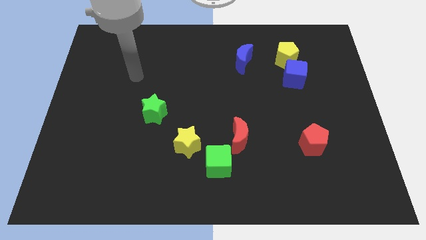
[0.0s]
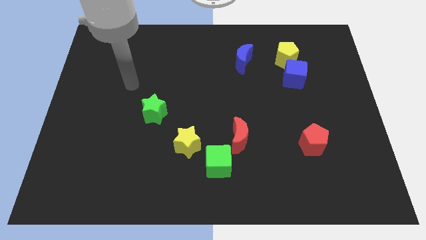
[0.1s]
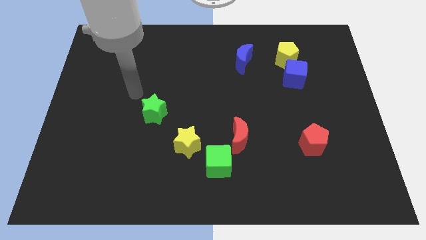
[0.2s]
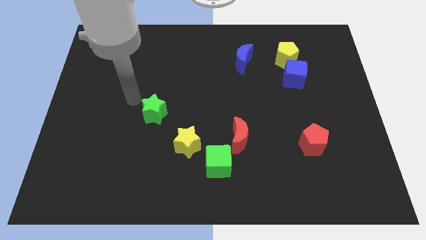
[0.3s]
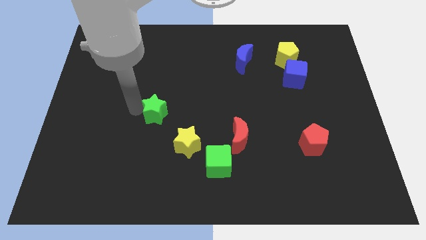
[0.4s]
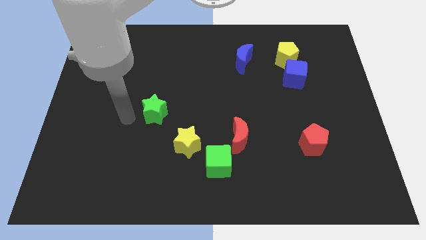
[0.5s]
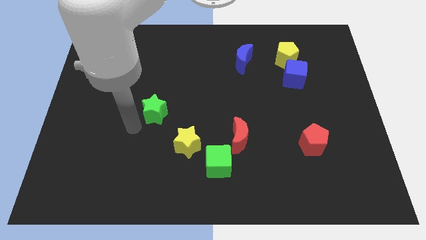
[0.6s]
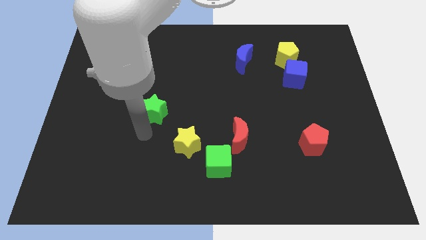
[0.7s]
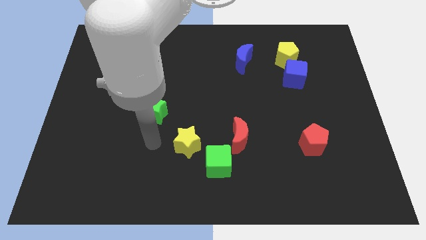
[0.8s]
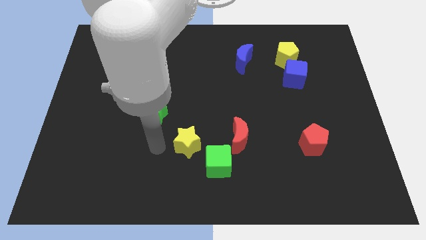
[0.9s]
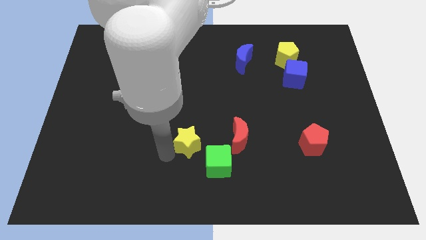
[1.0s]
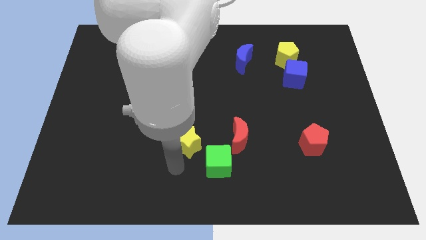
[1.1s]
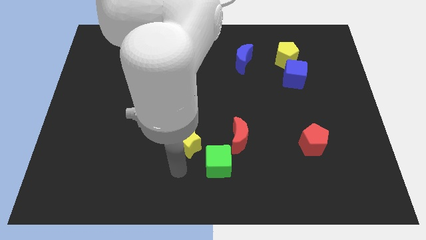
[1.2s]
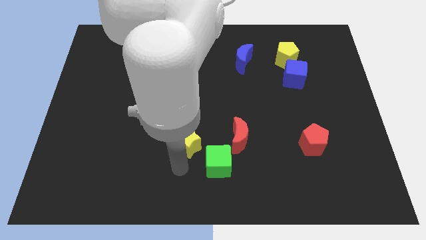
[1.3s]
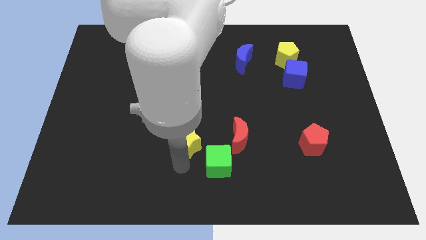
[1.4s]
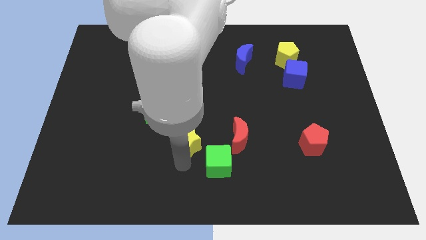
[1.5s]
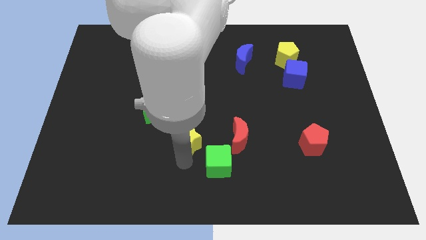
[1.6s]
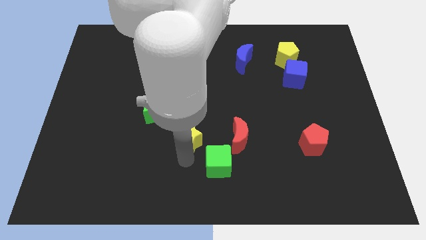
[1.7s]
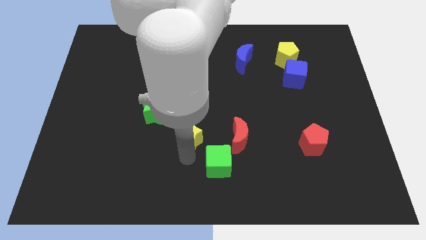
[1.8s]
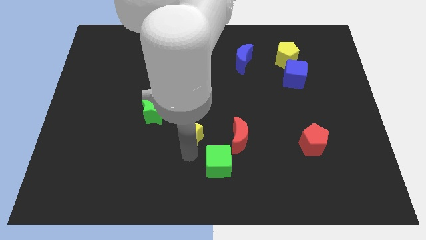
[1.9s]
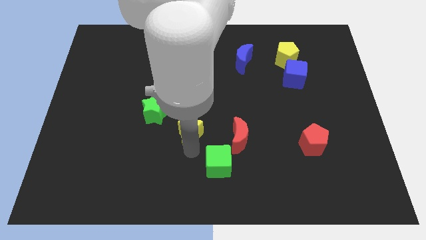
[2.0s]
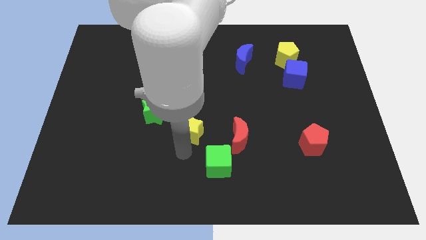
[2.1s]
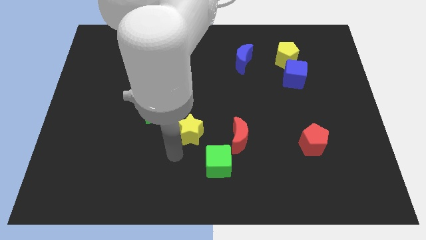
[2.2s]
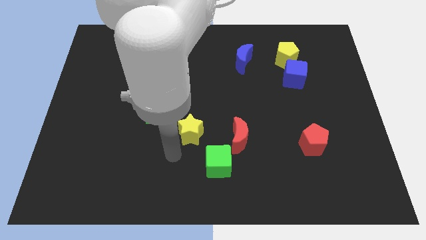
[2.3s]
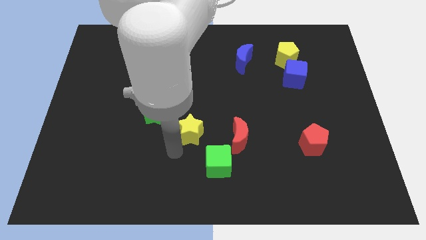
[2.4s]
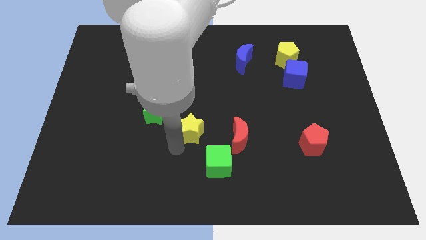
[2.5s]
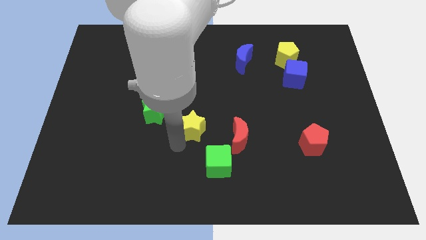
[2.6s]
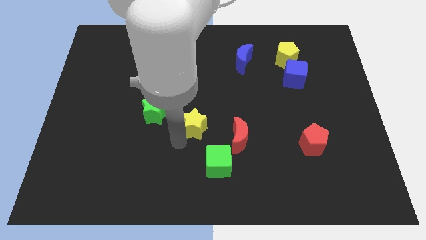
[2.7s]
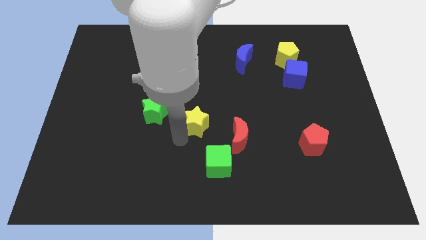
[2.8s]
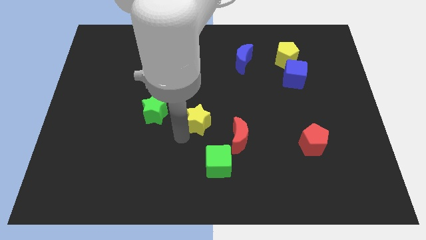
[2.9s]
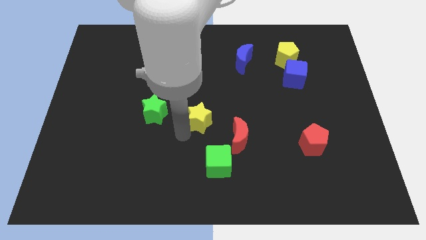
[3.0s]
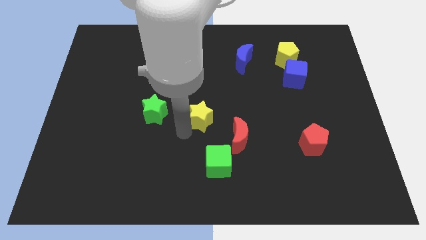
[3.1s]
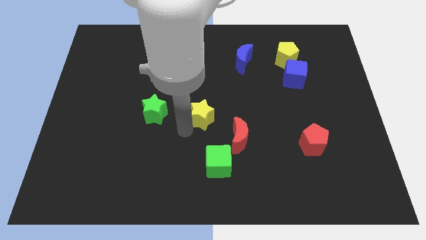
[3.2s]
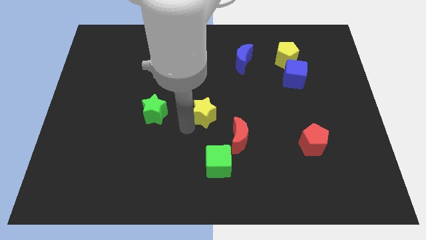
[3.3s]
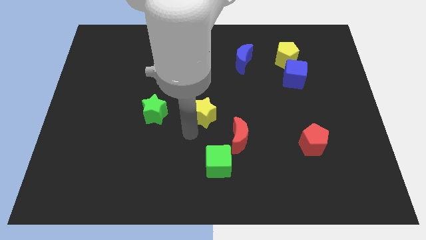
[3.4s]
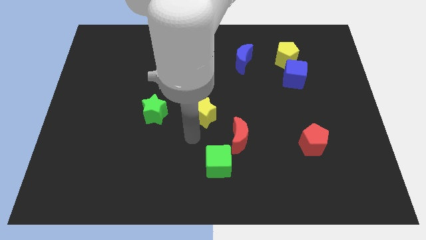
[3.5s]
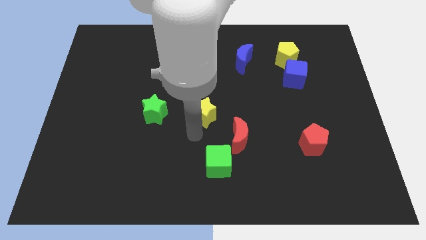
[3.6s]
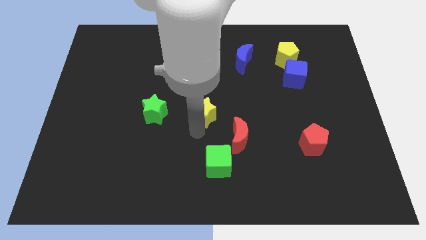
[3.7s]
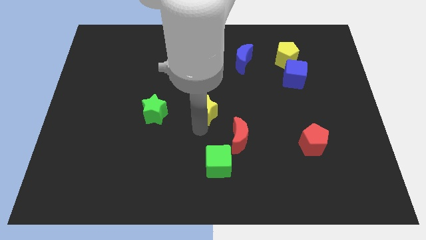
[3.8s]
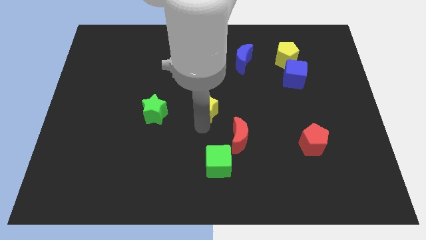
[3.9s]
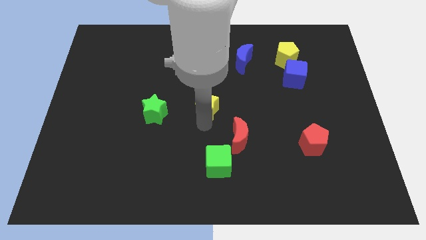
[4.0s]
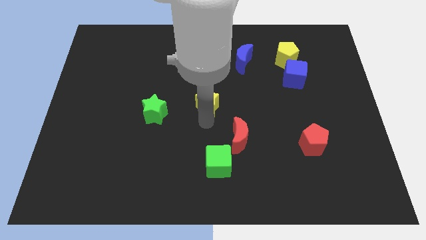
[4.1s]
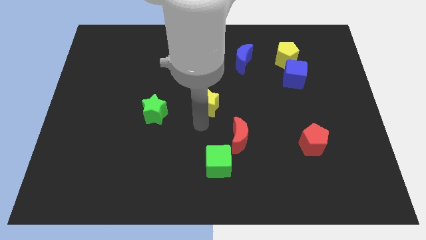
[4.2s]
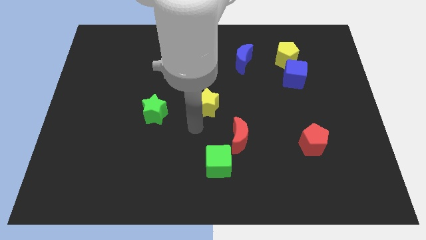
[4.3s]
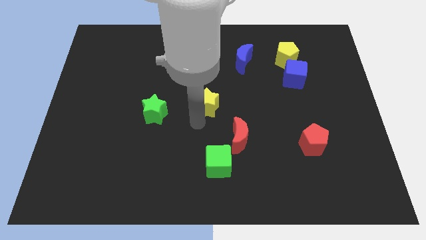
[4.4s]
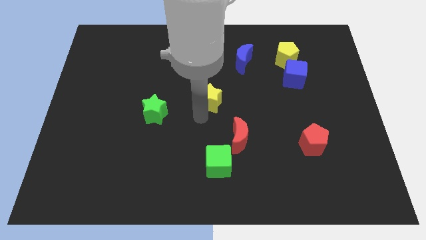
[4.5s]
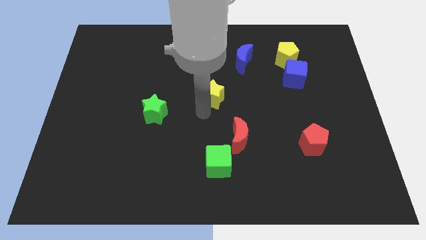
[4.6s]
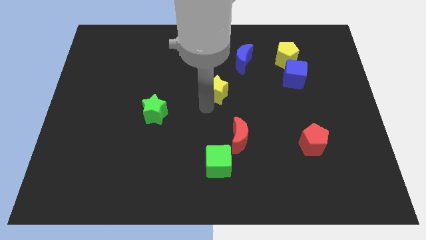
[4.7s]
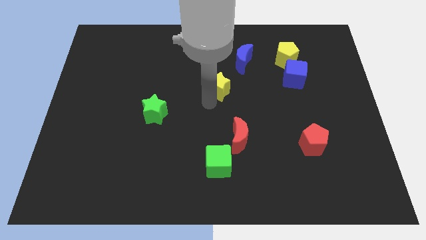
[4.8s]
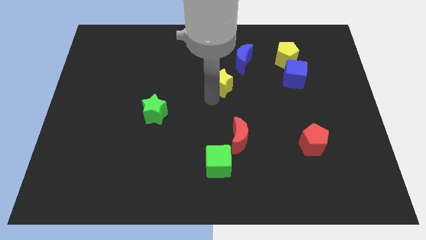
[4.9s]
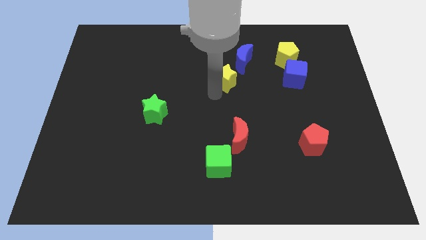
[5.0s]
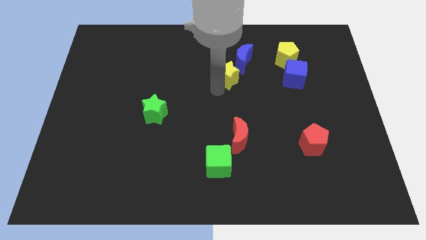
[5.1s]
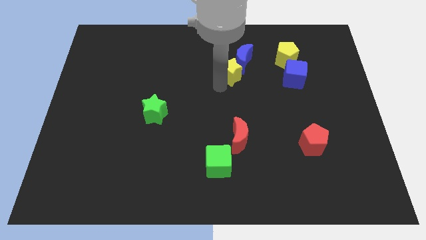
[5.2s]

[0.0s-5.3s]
slide the yellow star next to the blue moon

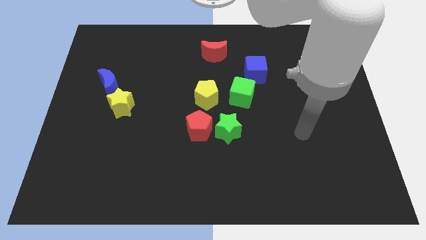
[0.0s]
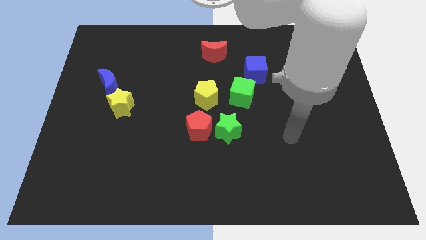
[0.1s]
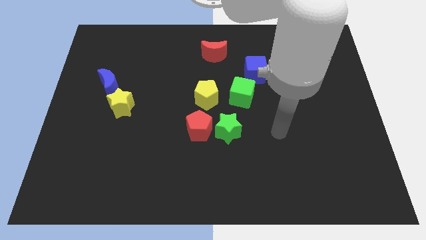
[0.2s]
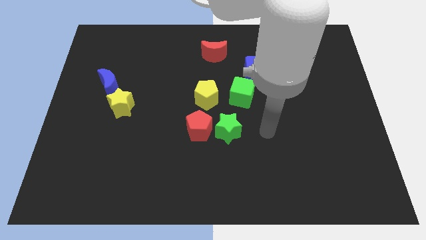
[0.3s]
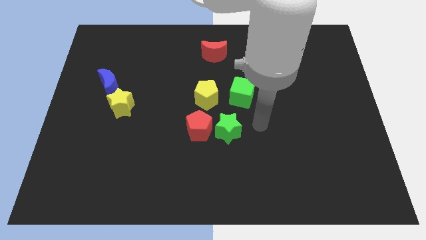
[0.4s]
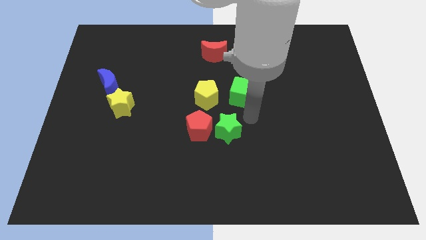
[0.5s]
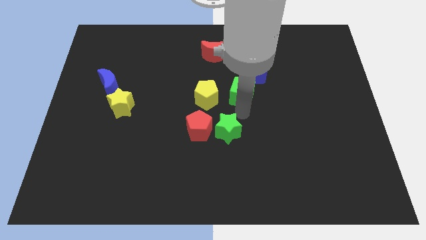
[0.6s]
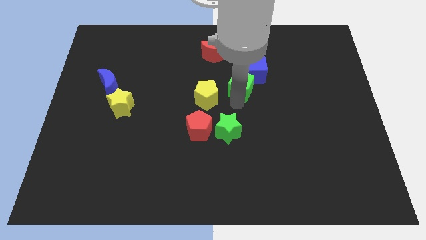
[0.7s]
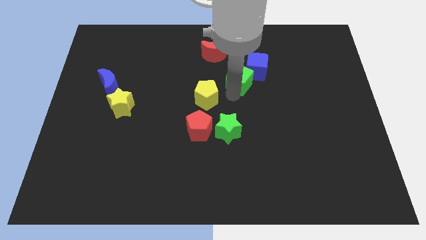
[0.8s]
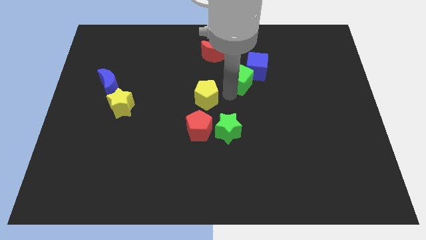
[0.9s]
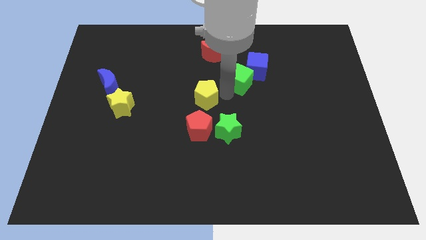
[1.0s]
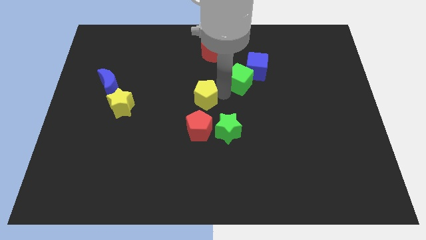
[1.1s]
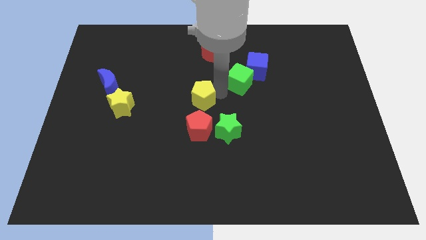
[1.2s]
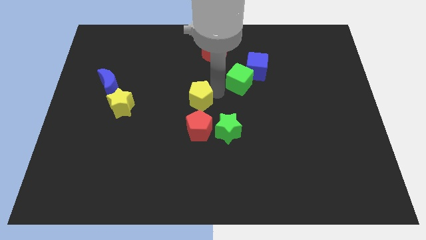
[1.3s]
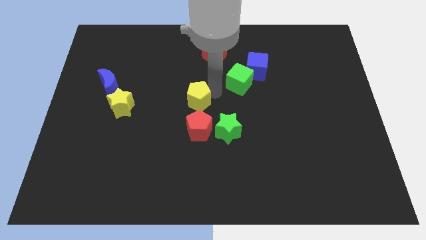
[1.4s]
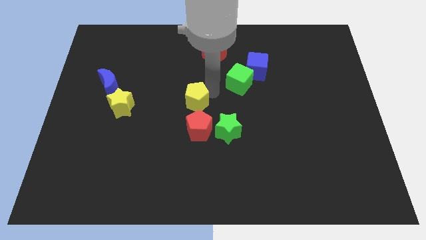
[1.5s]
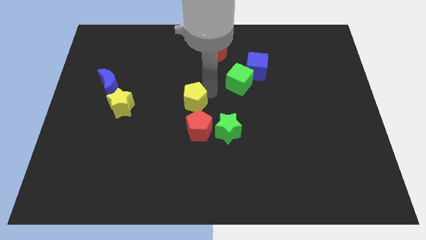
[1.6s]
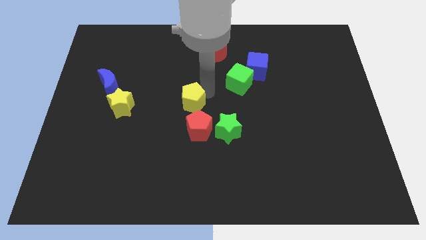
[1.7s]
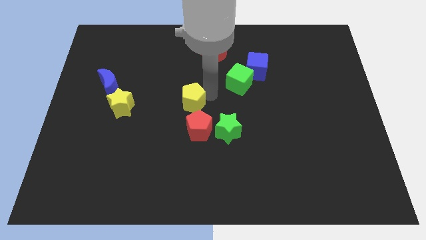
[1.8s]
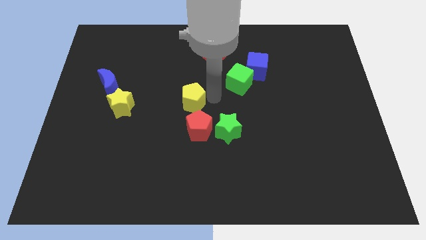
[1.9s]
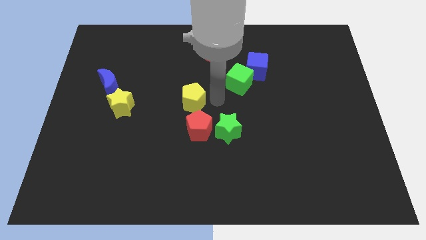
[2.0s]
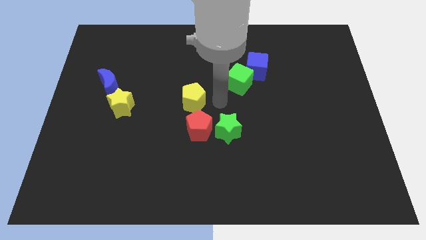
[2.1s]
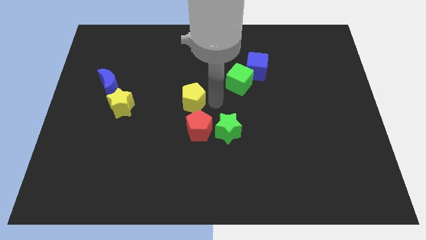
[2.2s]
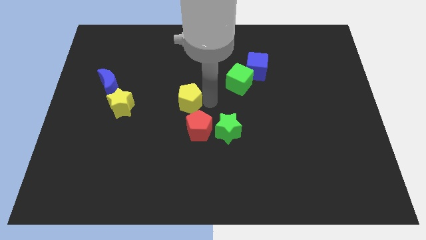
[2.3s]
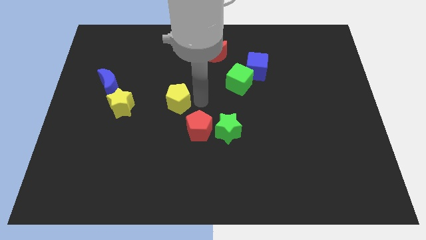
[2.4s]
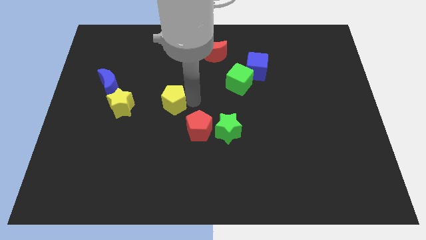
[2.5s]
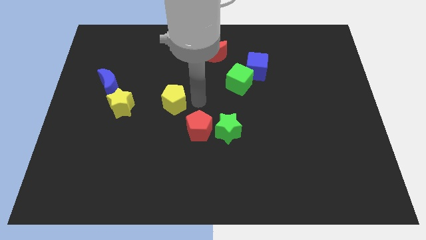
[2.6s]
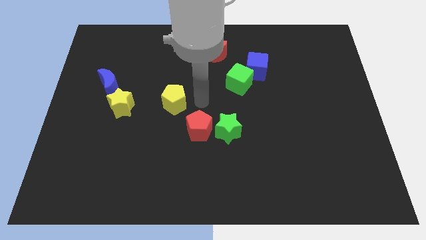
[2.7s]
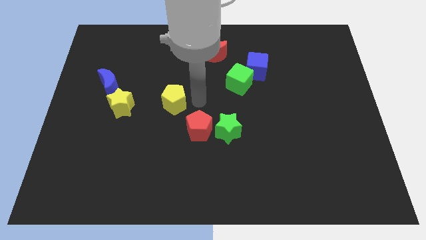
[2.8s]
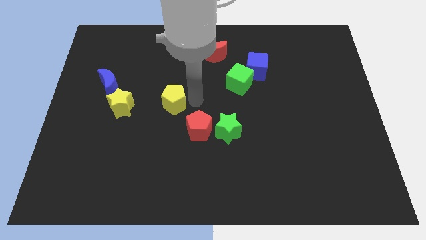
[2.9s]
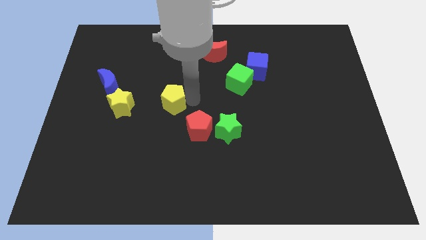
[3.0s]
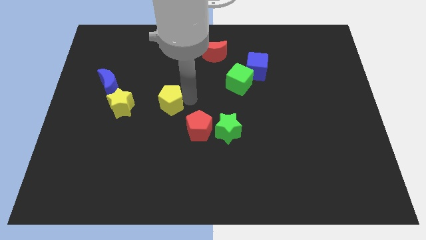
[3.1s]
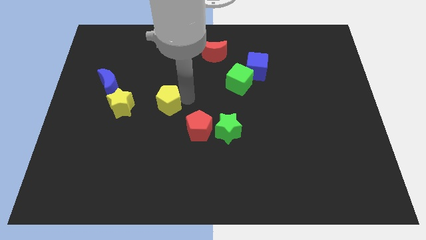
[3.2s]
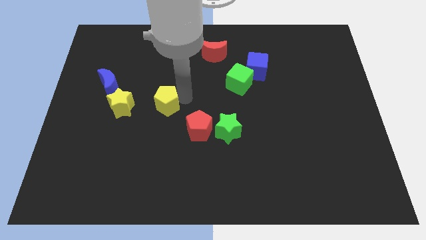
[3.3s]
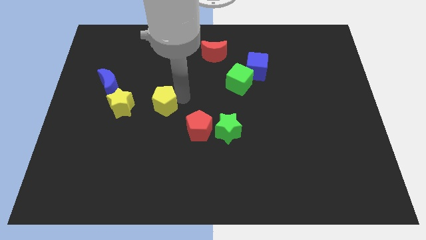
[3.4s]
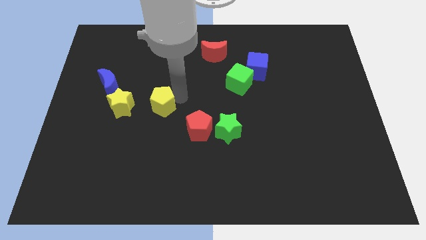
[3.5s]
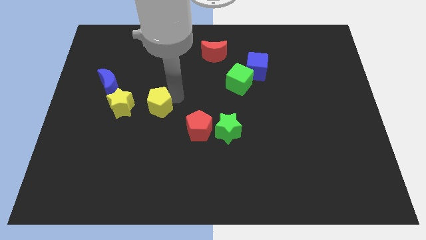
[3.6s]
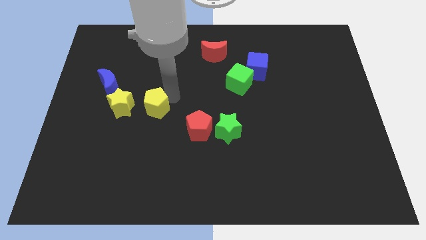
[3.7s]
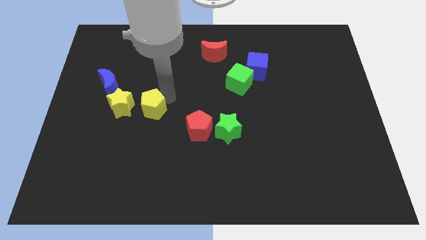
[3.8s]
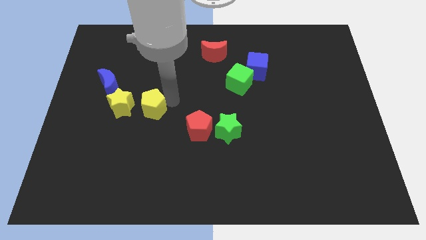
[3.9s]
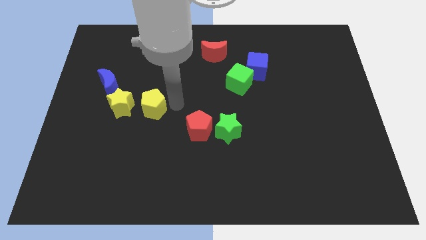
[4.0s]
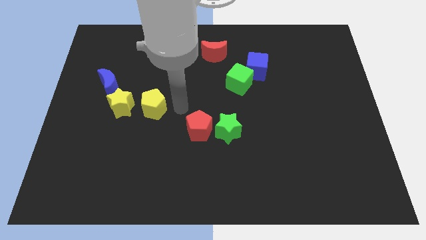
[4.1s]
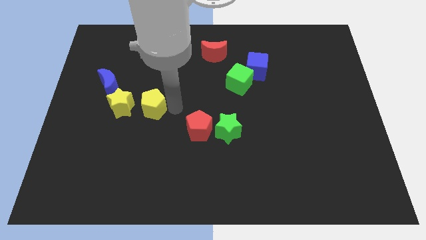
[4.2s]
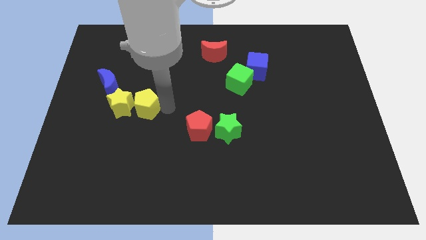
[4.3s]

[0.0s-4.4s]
push the yellow pentagon to the yellow star
